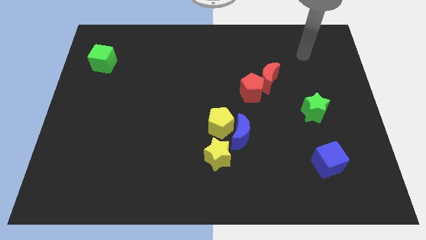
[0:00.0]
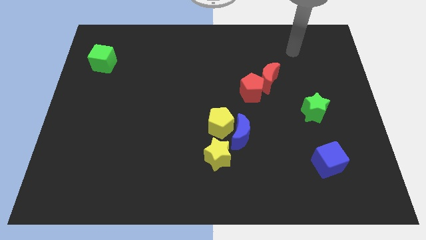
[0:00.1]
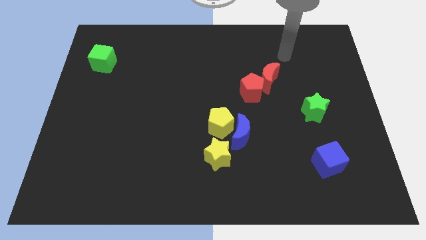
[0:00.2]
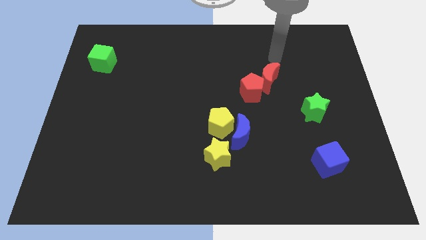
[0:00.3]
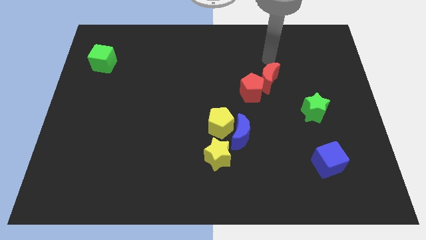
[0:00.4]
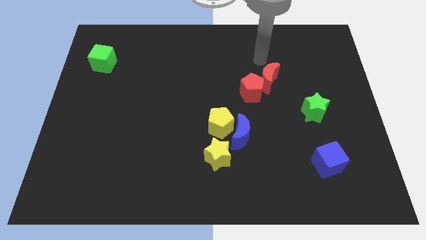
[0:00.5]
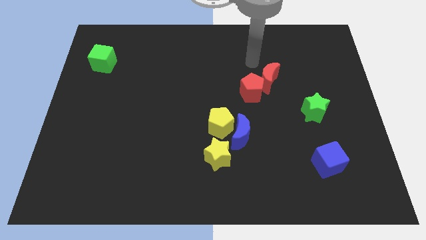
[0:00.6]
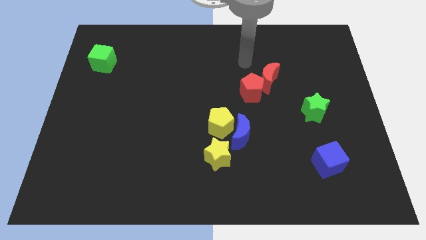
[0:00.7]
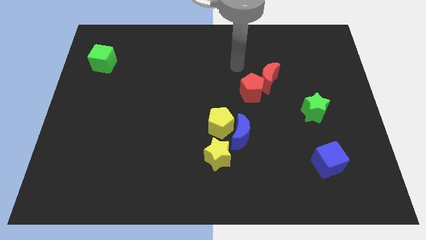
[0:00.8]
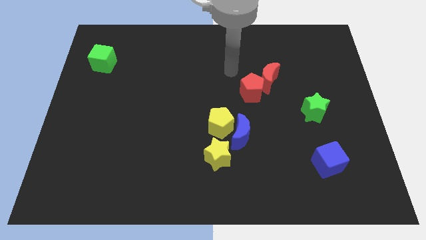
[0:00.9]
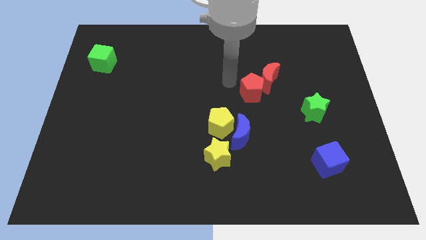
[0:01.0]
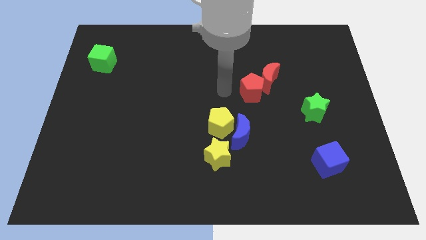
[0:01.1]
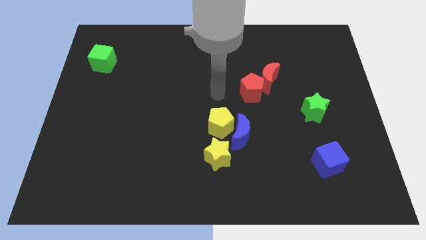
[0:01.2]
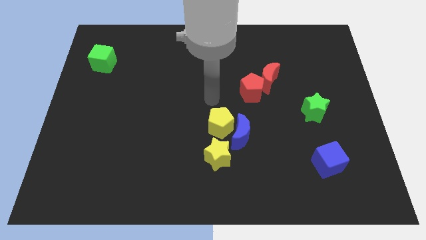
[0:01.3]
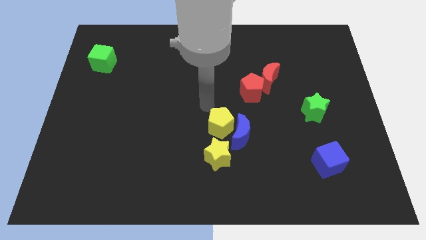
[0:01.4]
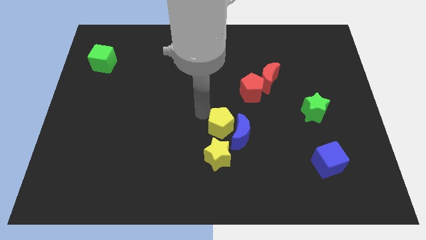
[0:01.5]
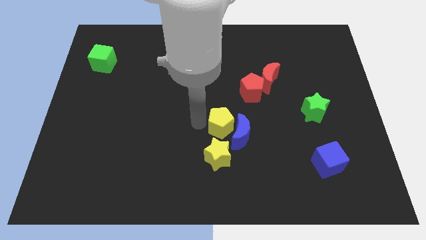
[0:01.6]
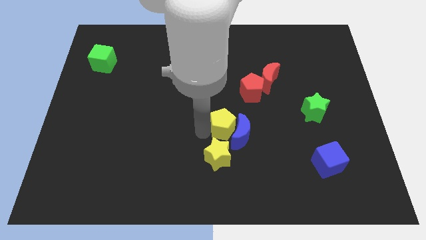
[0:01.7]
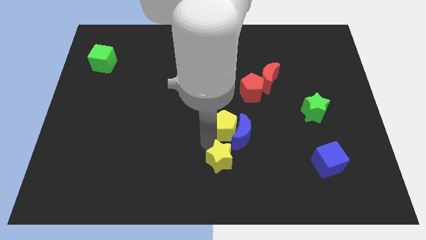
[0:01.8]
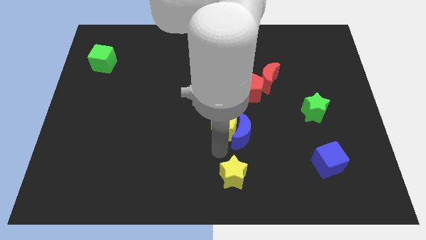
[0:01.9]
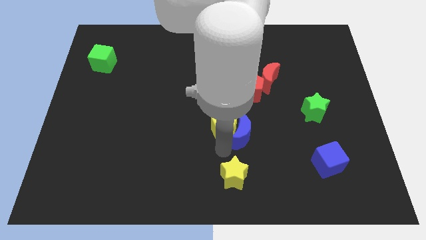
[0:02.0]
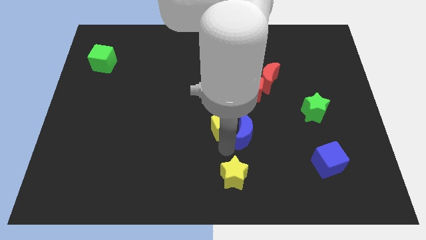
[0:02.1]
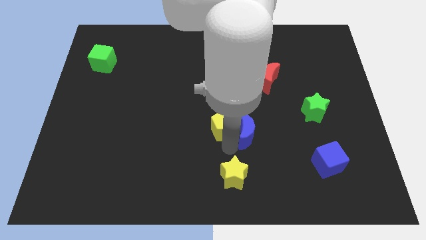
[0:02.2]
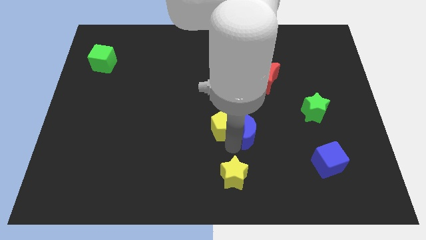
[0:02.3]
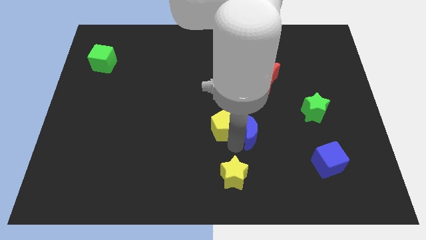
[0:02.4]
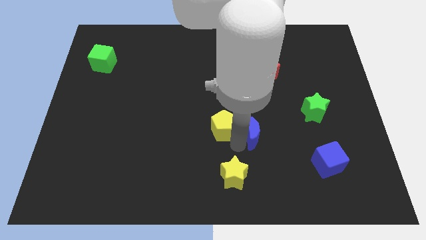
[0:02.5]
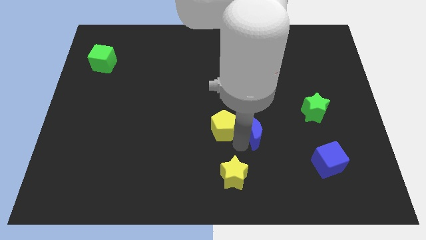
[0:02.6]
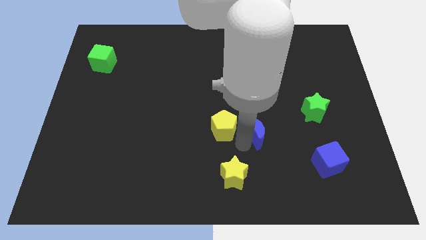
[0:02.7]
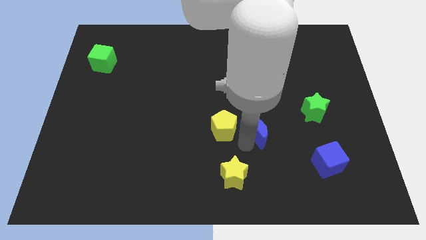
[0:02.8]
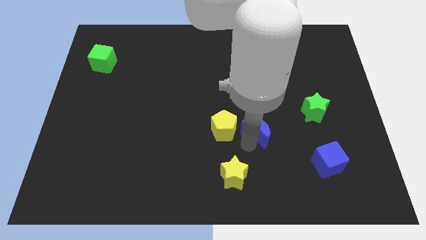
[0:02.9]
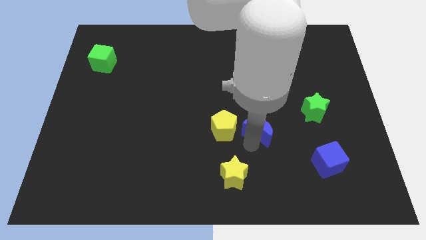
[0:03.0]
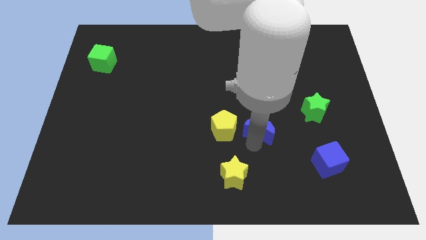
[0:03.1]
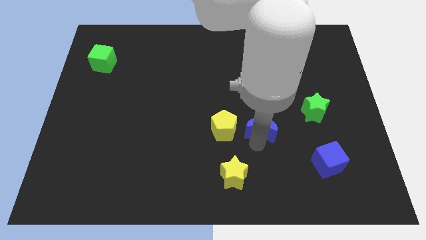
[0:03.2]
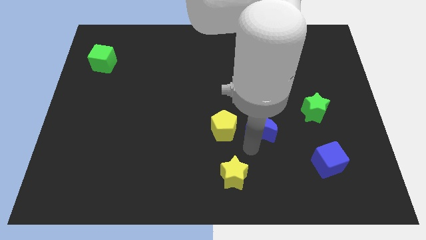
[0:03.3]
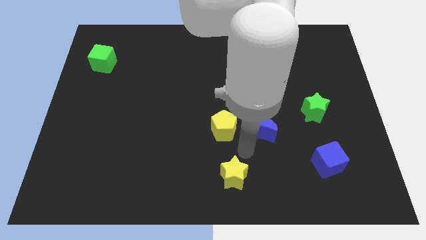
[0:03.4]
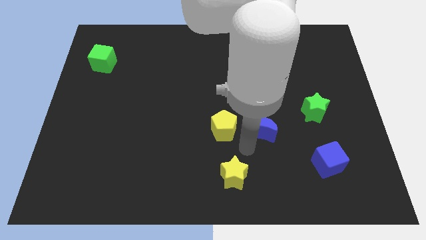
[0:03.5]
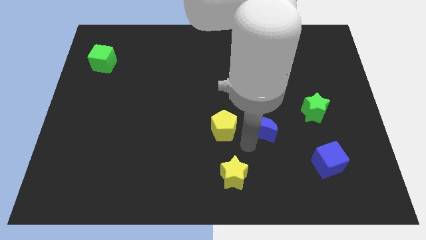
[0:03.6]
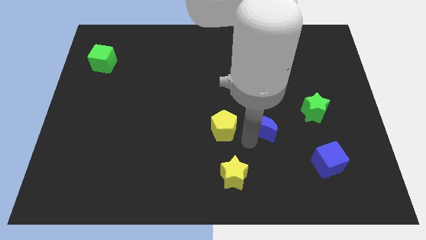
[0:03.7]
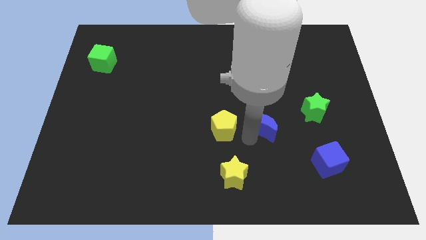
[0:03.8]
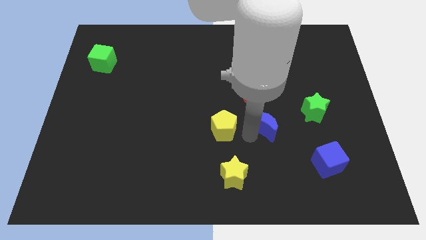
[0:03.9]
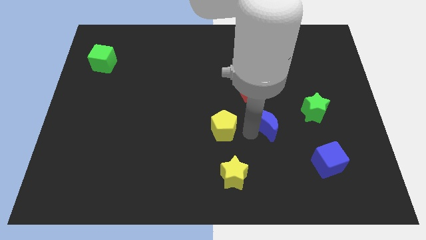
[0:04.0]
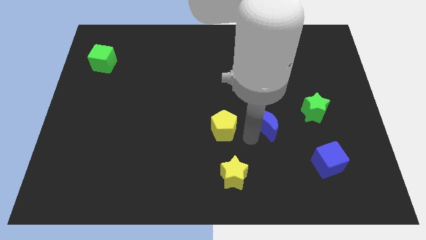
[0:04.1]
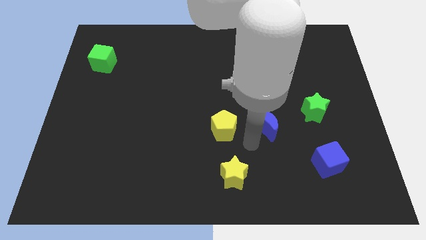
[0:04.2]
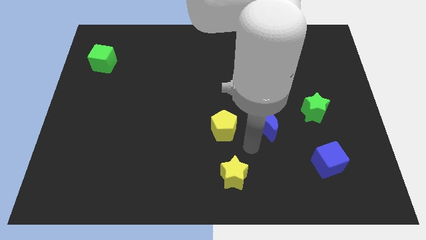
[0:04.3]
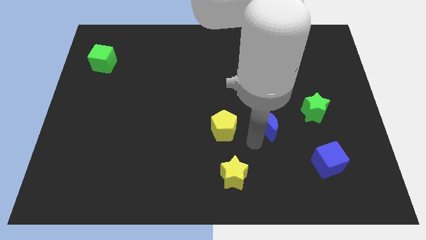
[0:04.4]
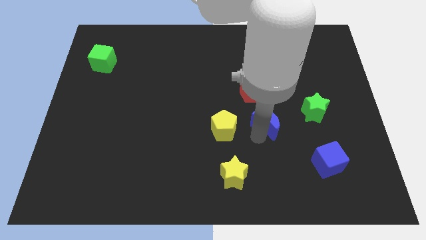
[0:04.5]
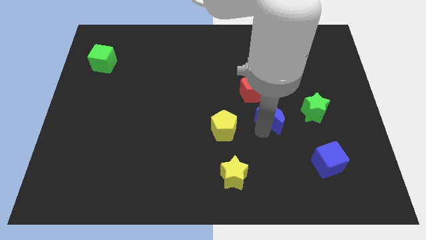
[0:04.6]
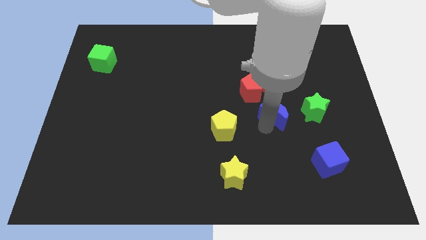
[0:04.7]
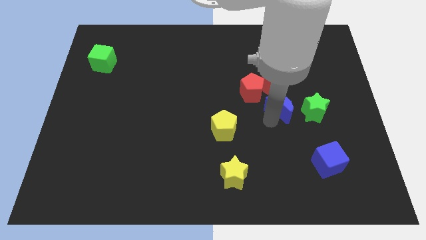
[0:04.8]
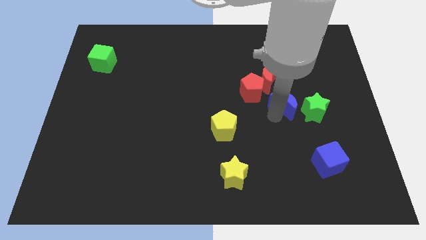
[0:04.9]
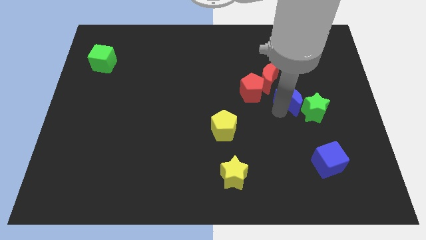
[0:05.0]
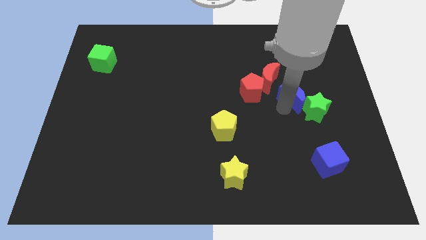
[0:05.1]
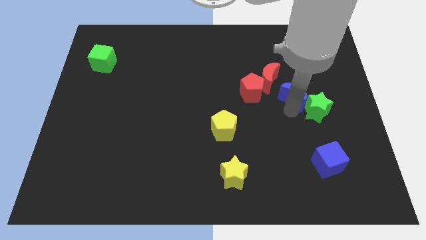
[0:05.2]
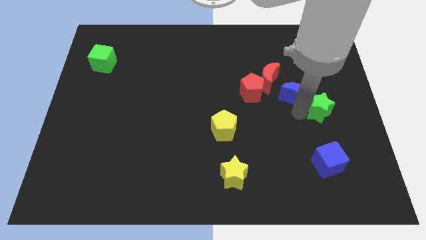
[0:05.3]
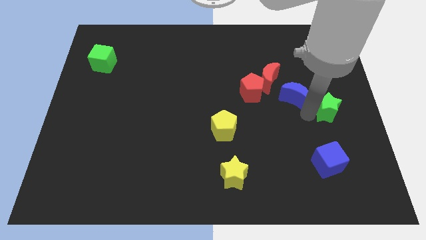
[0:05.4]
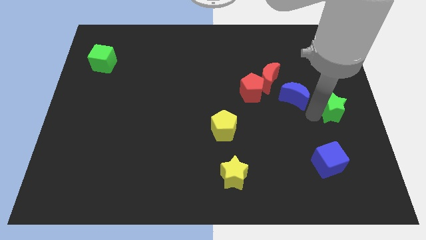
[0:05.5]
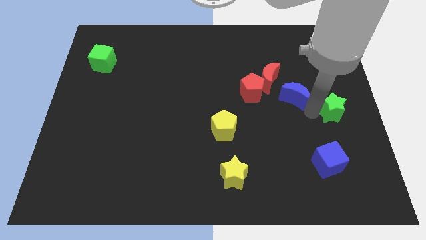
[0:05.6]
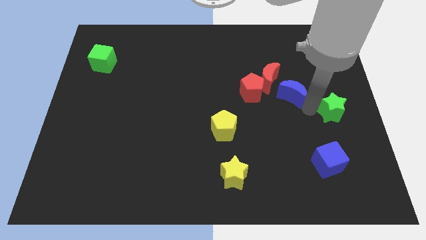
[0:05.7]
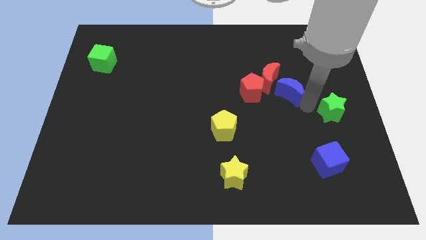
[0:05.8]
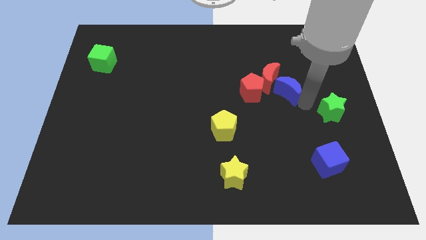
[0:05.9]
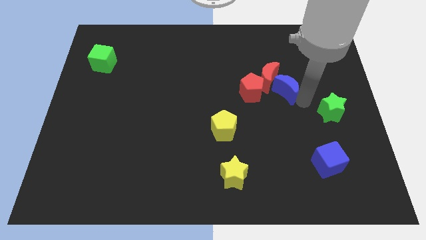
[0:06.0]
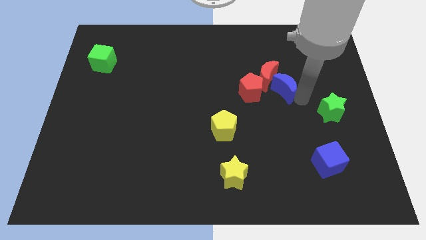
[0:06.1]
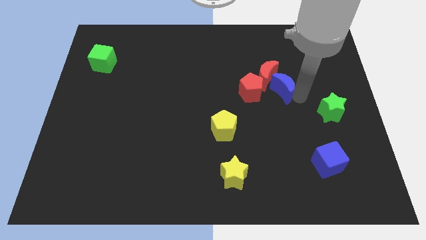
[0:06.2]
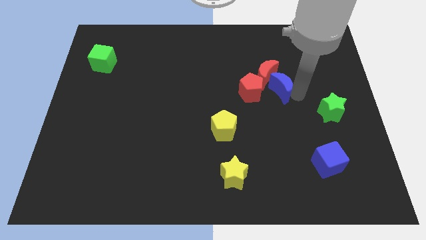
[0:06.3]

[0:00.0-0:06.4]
slide the blue moon to the top right side of the red pentagon
